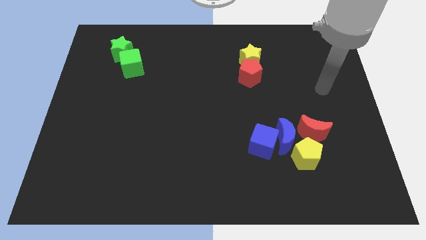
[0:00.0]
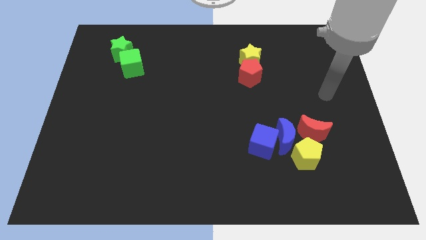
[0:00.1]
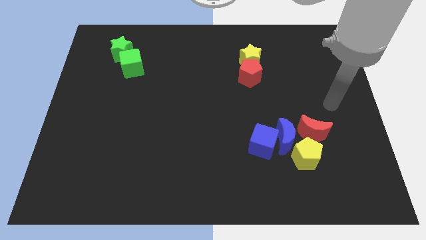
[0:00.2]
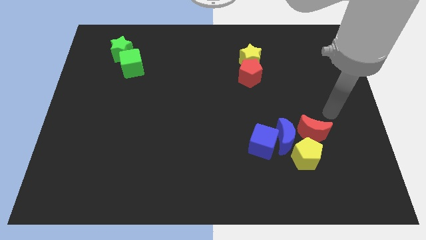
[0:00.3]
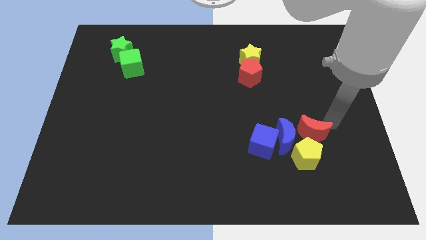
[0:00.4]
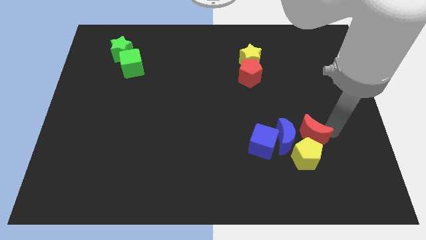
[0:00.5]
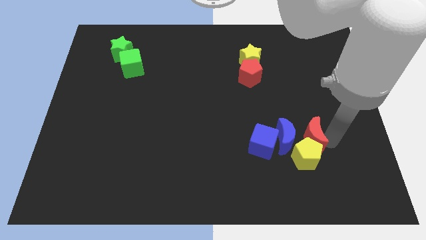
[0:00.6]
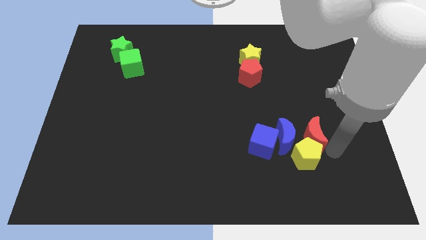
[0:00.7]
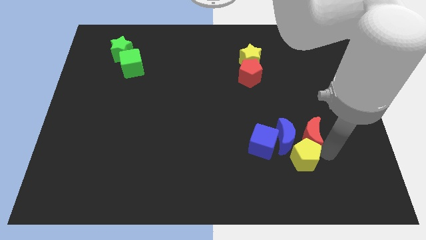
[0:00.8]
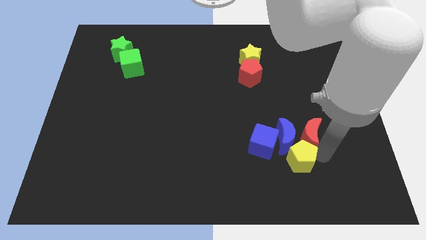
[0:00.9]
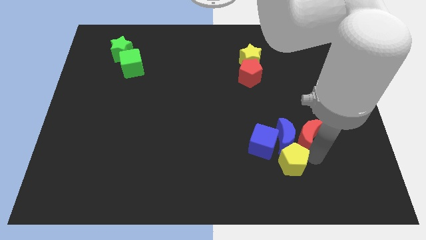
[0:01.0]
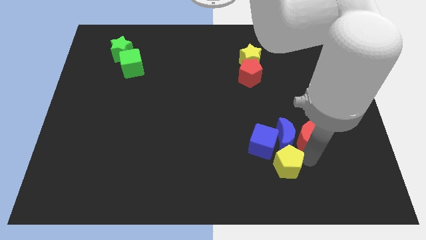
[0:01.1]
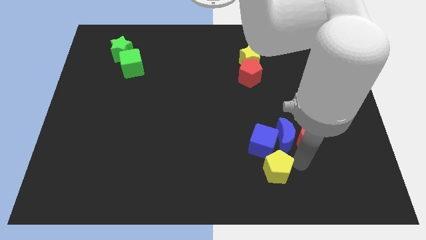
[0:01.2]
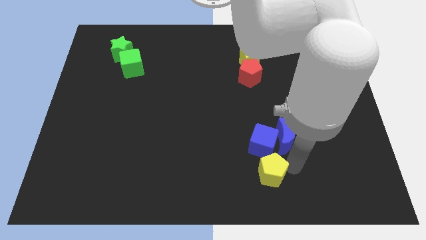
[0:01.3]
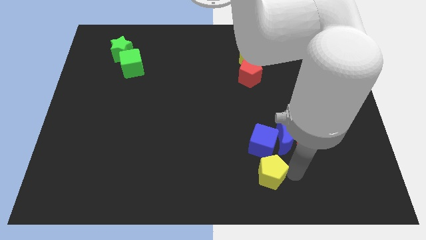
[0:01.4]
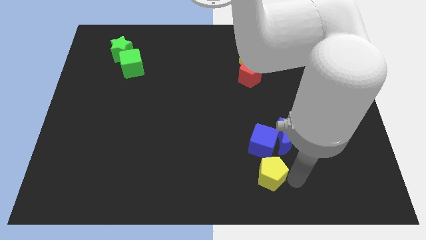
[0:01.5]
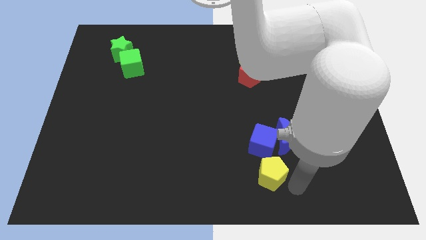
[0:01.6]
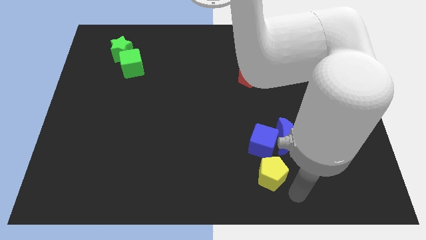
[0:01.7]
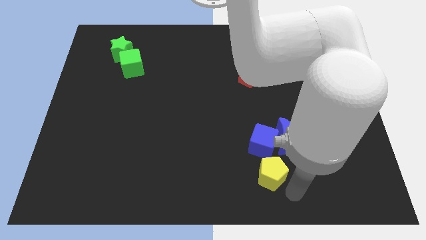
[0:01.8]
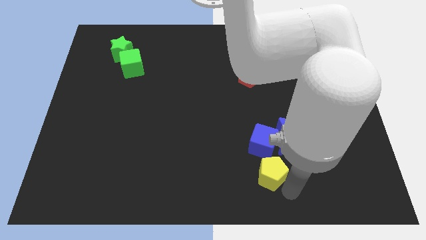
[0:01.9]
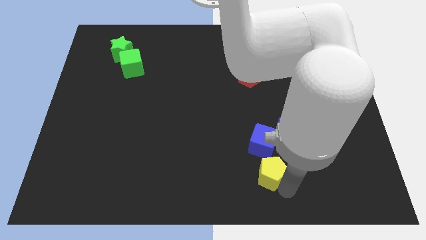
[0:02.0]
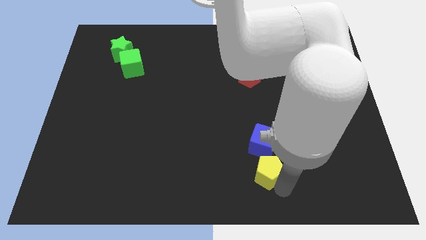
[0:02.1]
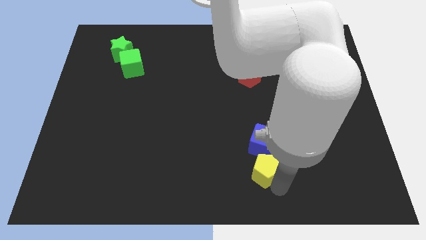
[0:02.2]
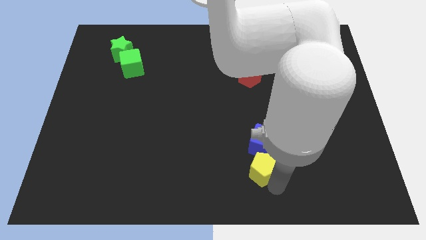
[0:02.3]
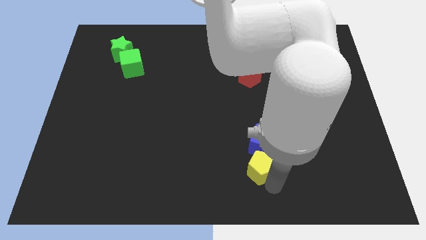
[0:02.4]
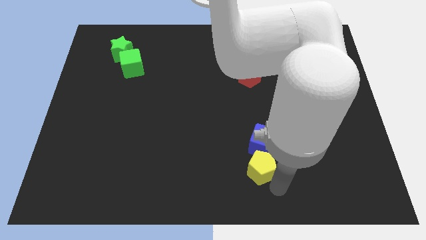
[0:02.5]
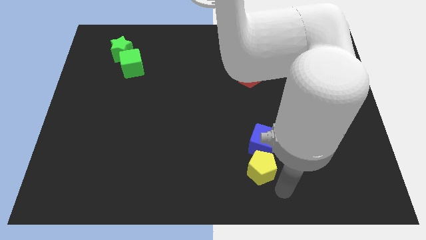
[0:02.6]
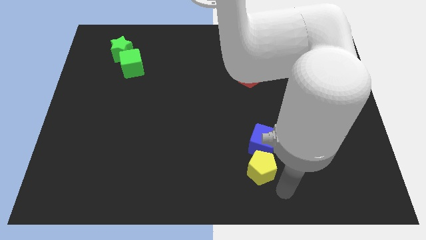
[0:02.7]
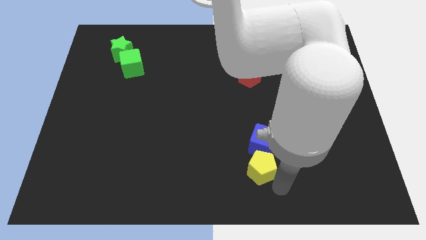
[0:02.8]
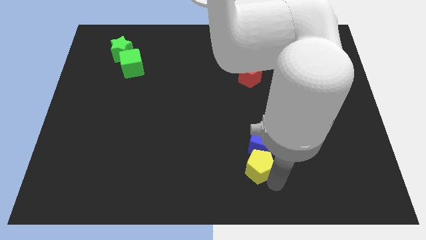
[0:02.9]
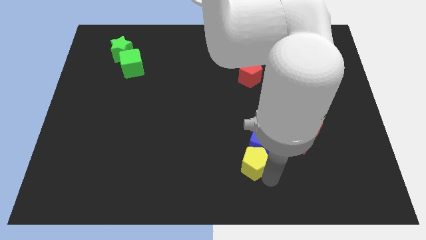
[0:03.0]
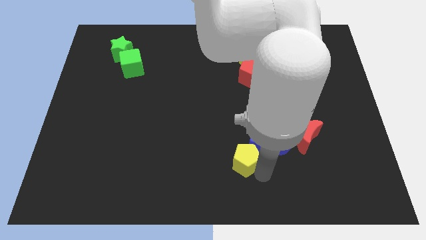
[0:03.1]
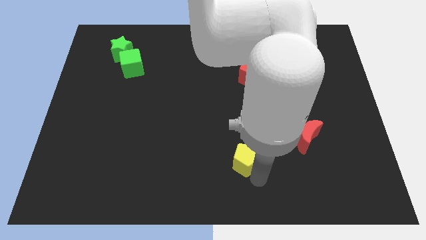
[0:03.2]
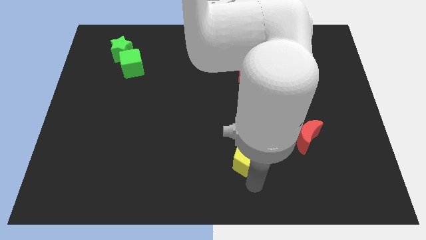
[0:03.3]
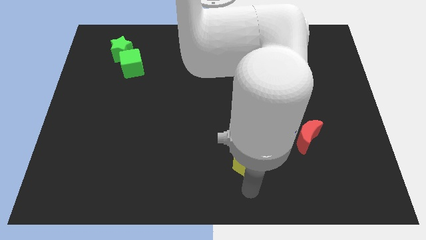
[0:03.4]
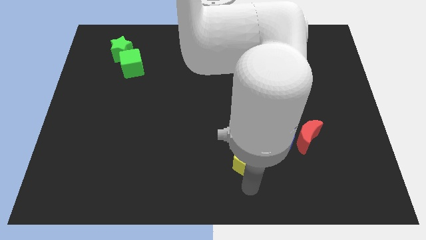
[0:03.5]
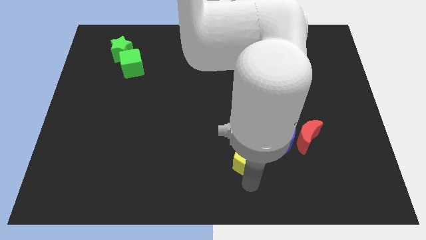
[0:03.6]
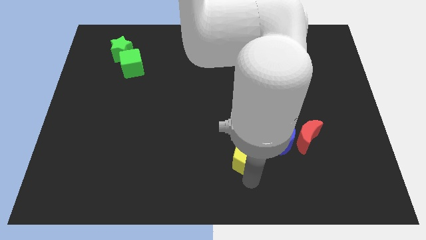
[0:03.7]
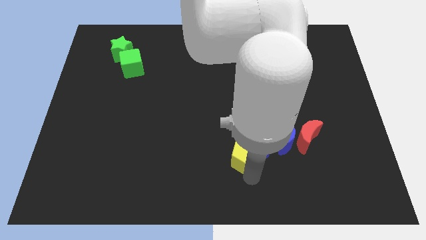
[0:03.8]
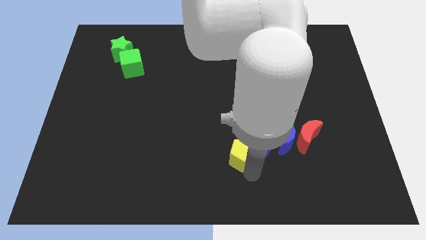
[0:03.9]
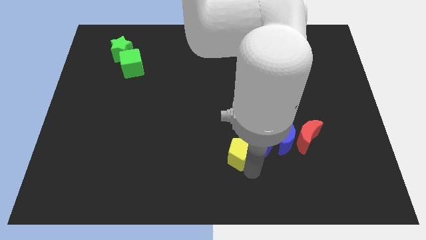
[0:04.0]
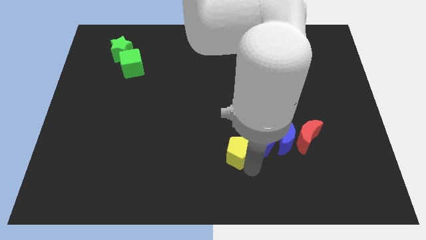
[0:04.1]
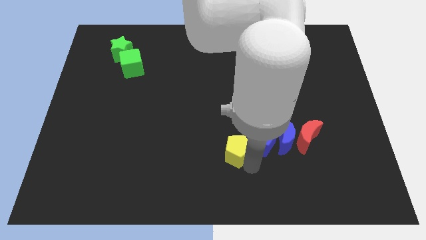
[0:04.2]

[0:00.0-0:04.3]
move the yellow pentagon diagonally up and left a bit

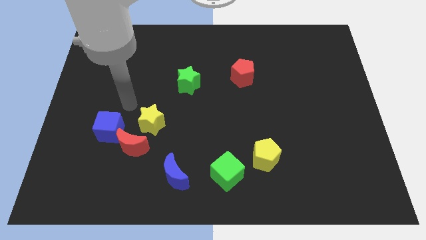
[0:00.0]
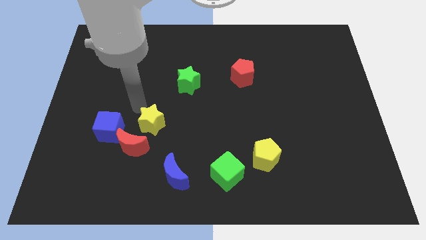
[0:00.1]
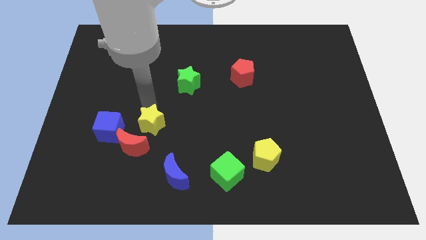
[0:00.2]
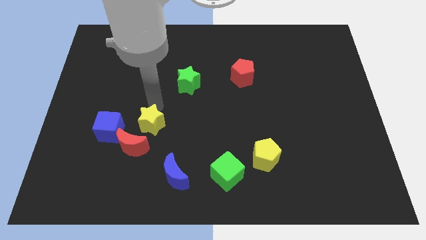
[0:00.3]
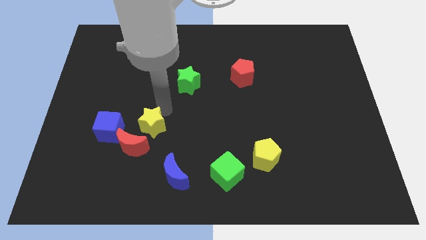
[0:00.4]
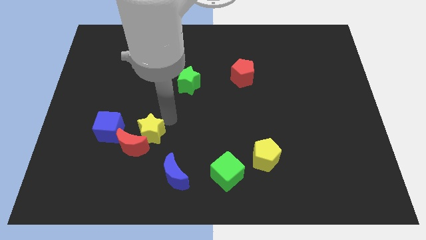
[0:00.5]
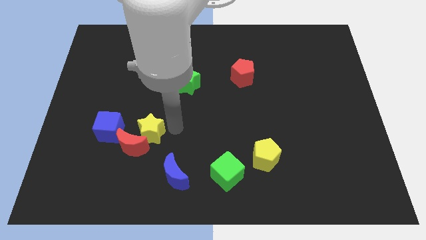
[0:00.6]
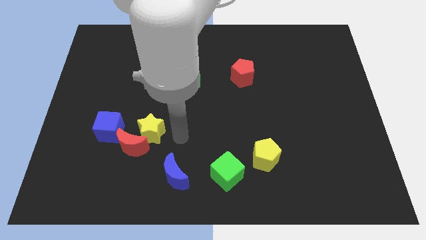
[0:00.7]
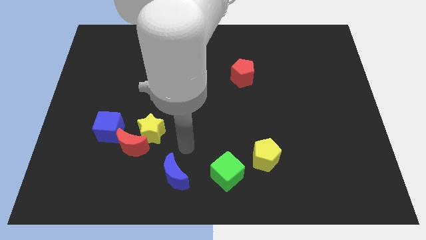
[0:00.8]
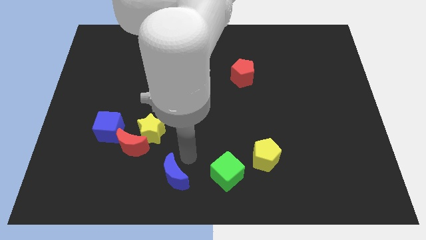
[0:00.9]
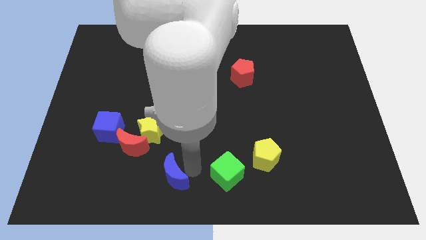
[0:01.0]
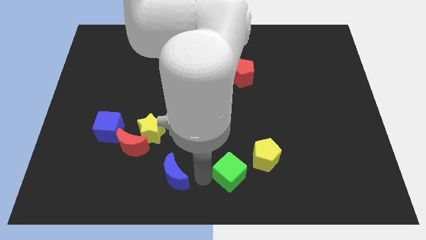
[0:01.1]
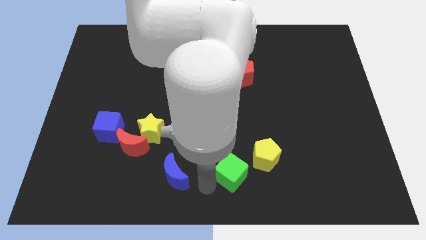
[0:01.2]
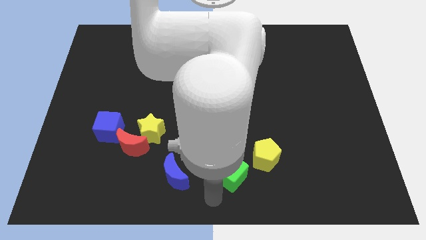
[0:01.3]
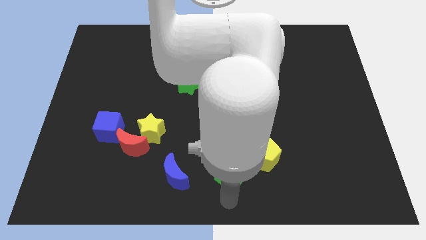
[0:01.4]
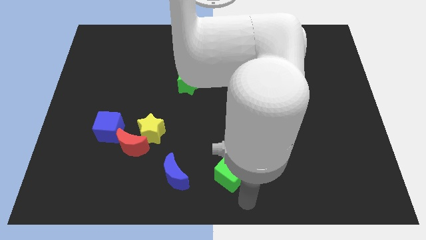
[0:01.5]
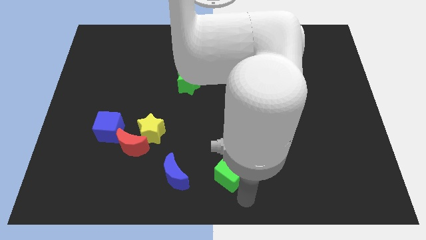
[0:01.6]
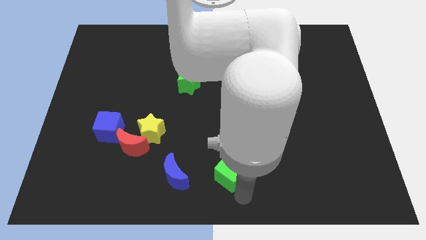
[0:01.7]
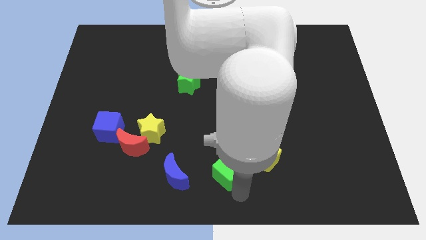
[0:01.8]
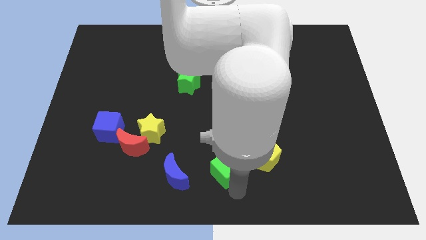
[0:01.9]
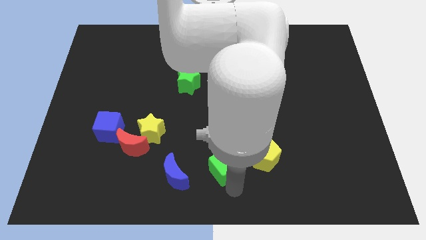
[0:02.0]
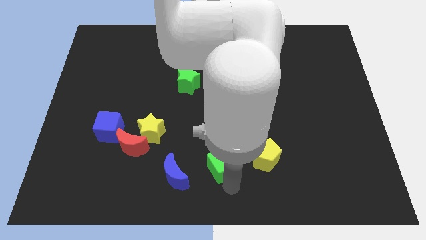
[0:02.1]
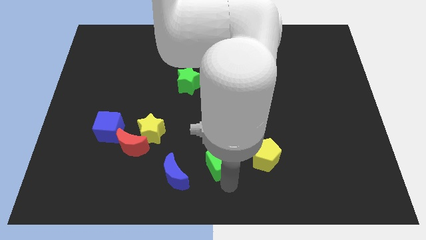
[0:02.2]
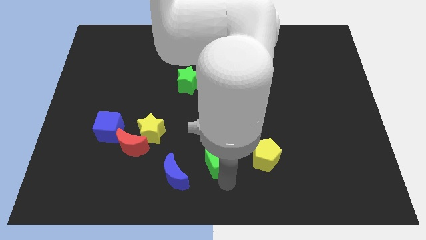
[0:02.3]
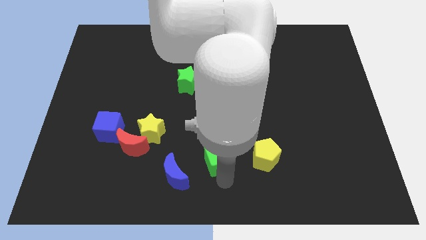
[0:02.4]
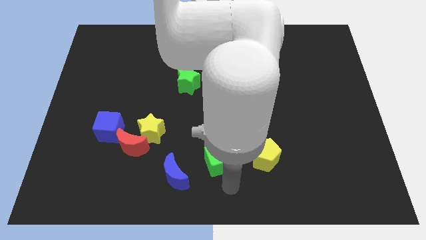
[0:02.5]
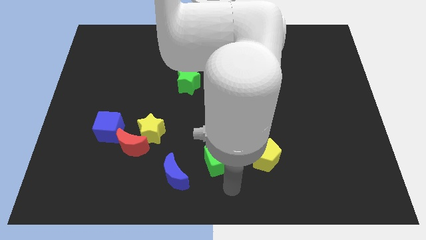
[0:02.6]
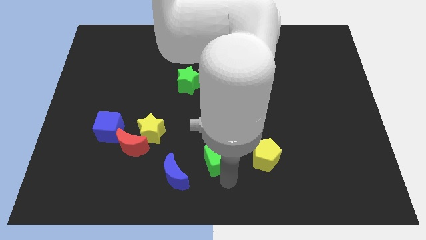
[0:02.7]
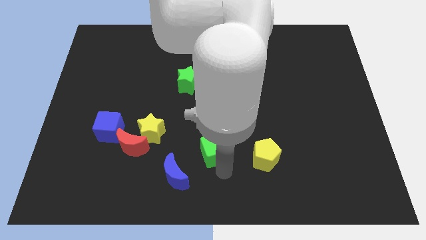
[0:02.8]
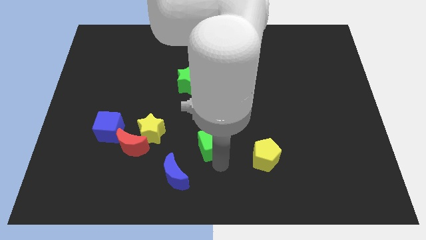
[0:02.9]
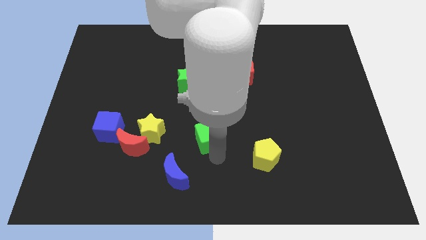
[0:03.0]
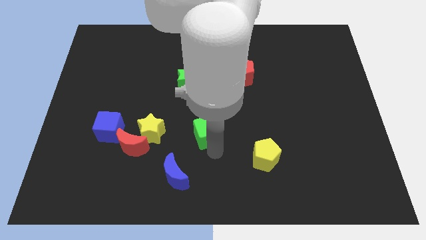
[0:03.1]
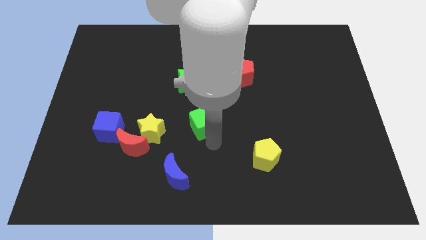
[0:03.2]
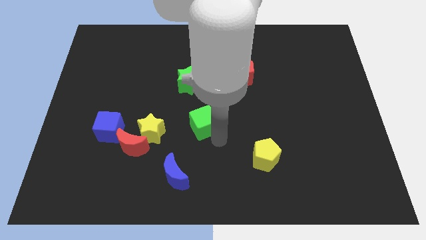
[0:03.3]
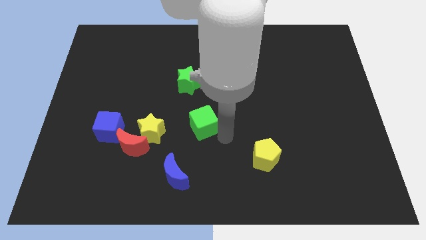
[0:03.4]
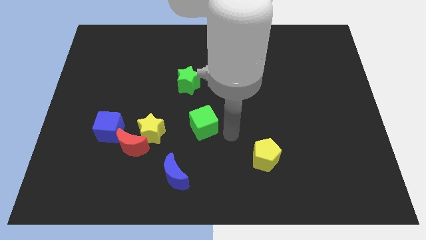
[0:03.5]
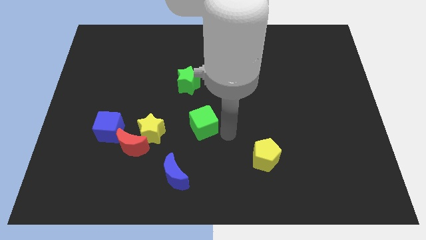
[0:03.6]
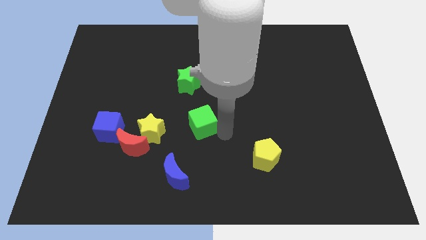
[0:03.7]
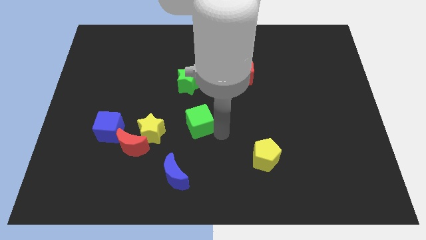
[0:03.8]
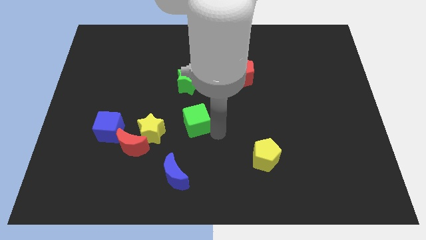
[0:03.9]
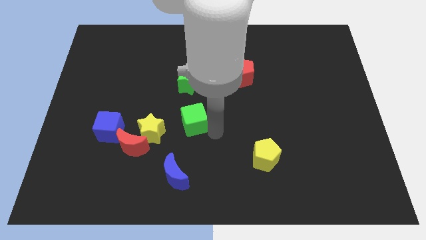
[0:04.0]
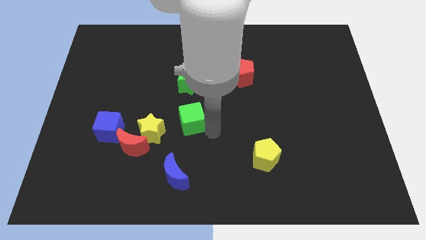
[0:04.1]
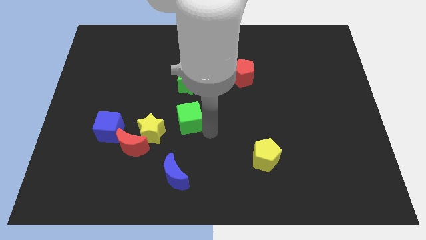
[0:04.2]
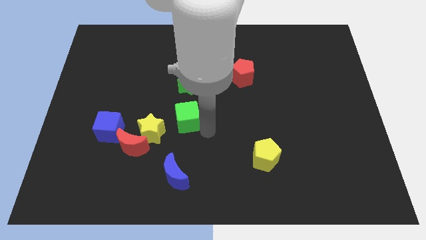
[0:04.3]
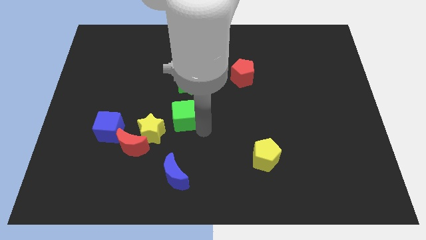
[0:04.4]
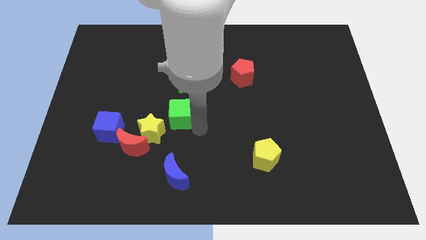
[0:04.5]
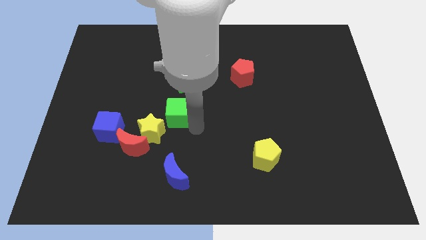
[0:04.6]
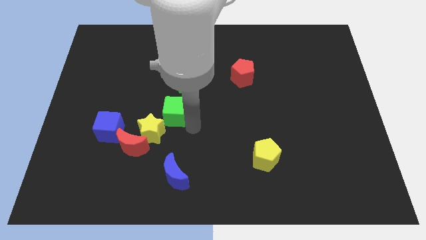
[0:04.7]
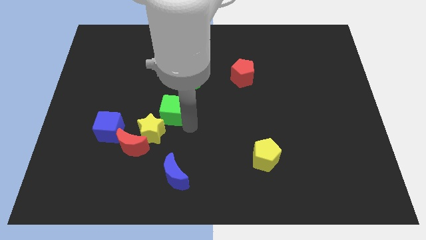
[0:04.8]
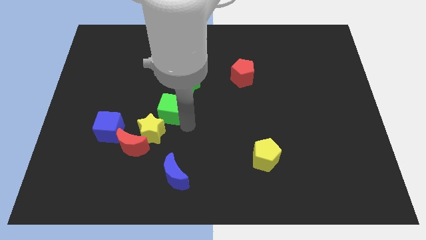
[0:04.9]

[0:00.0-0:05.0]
slide the green cube upwards and to the left
